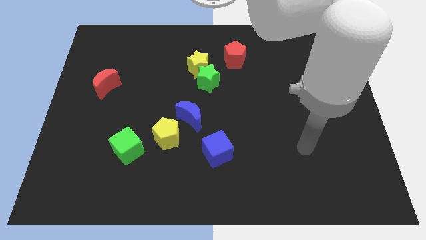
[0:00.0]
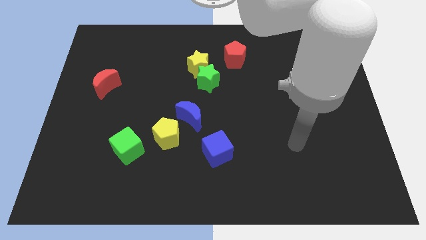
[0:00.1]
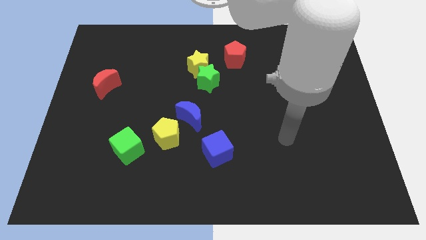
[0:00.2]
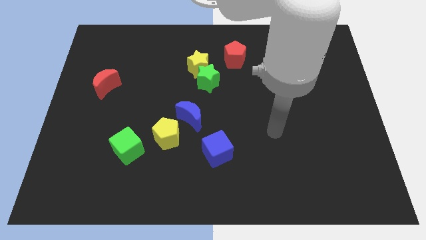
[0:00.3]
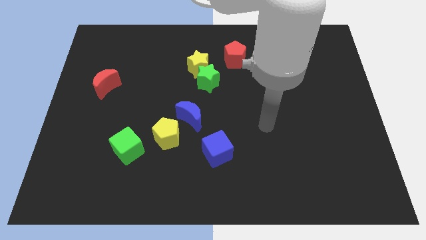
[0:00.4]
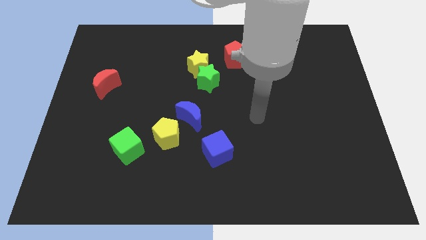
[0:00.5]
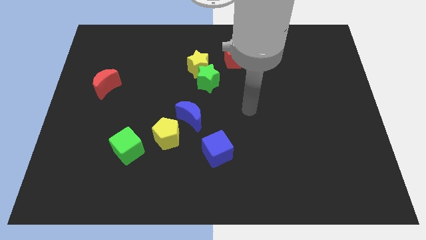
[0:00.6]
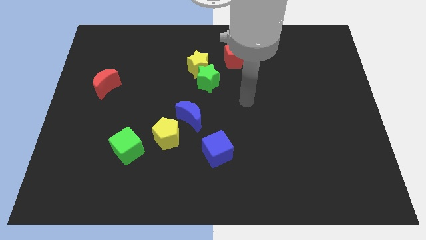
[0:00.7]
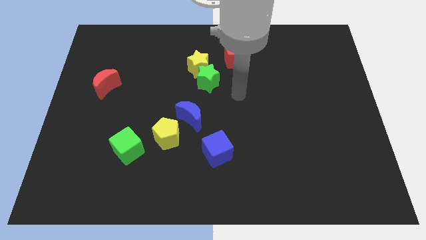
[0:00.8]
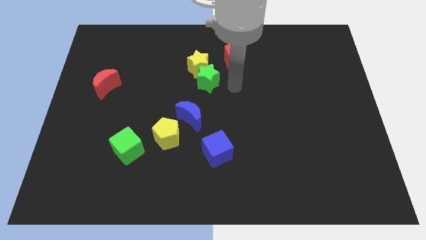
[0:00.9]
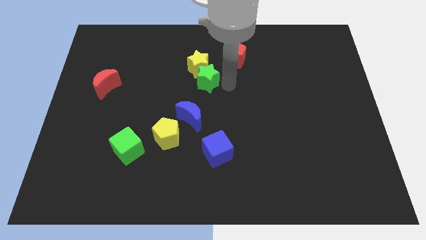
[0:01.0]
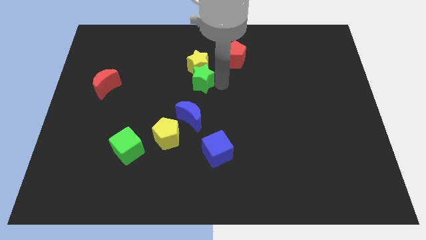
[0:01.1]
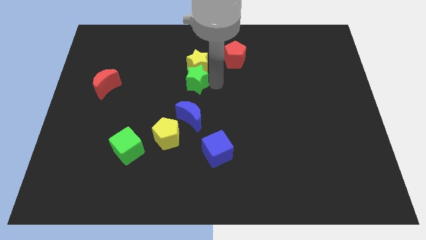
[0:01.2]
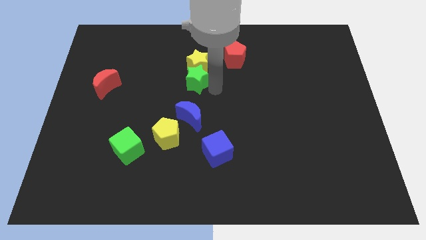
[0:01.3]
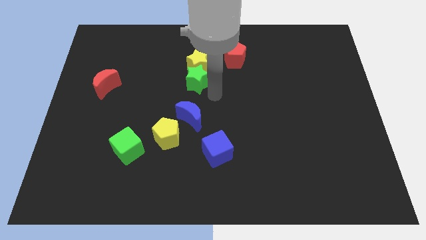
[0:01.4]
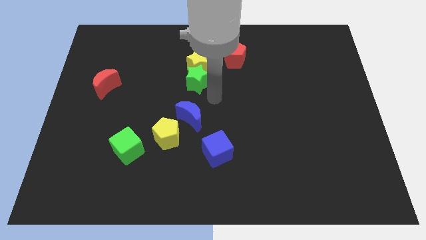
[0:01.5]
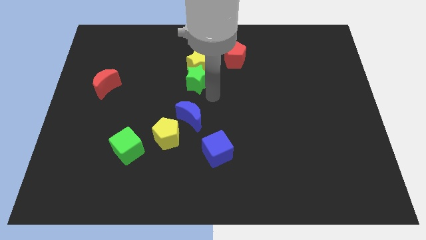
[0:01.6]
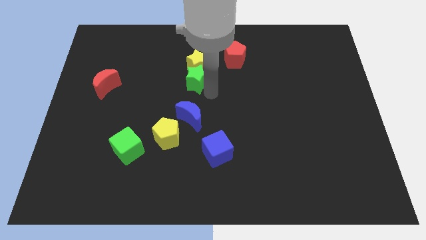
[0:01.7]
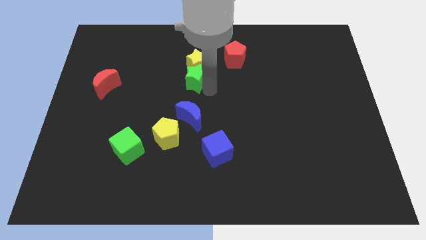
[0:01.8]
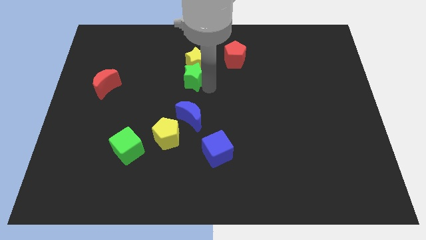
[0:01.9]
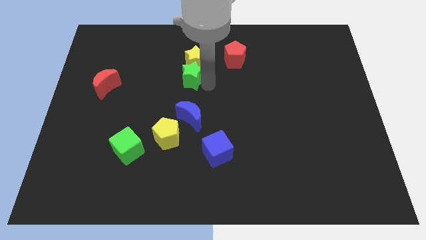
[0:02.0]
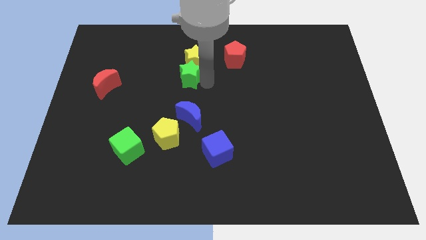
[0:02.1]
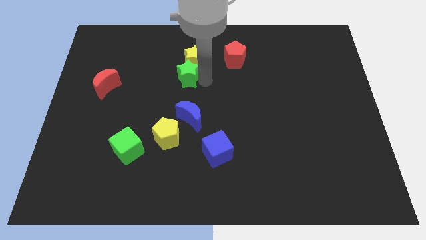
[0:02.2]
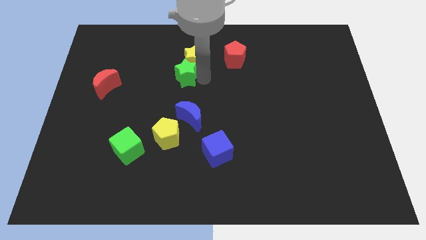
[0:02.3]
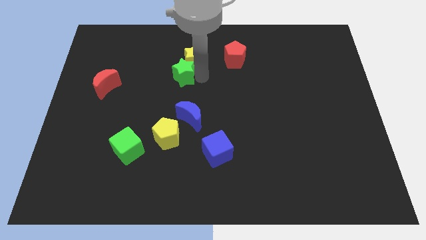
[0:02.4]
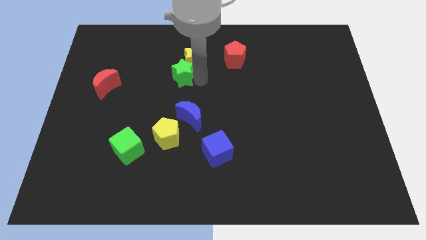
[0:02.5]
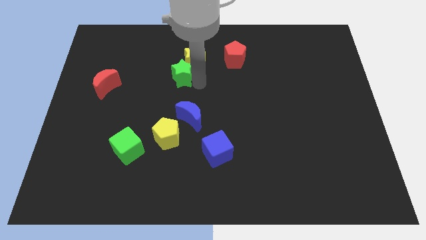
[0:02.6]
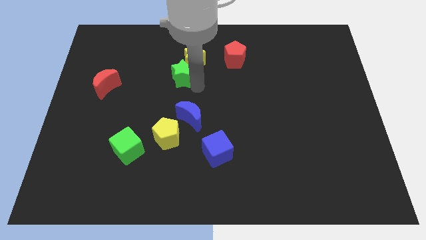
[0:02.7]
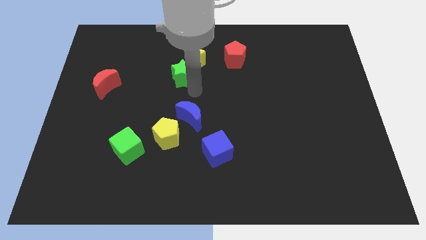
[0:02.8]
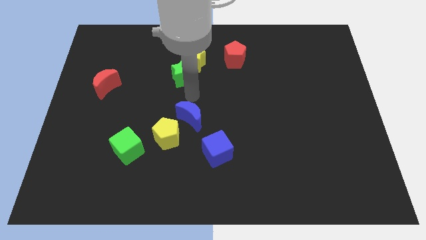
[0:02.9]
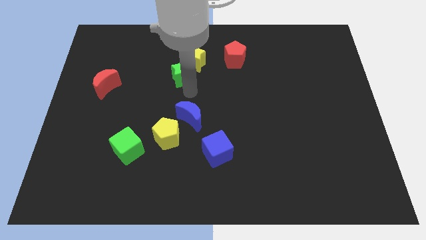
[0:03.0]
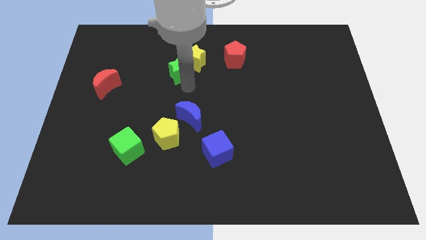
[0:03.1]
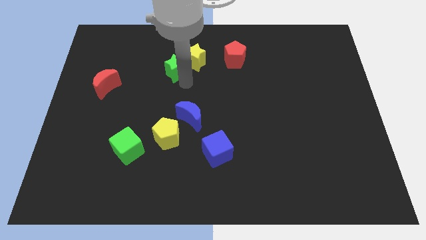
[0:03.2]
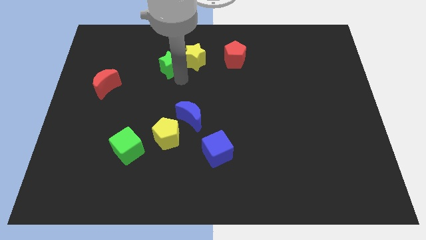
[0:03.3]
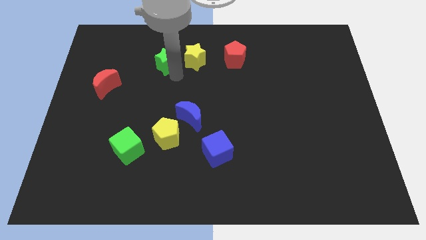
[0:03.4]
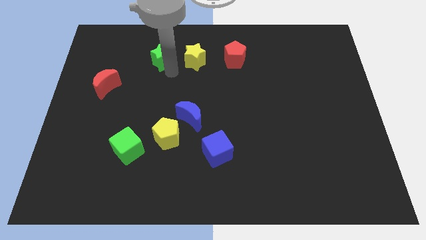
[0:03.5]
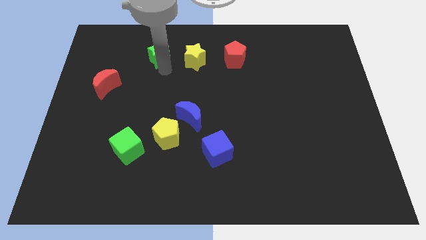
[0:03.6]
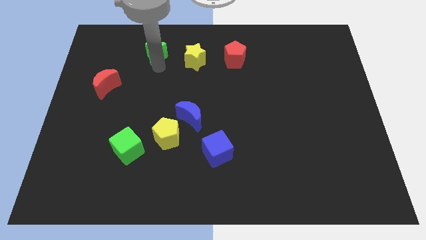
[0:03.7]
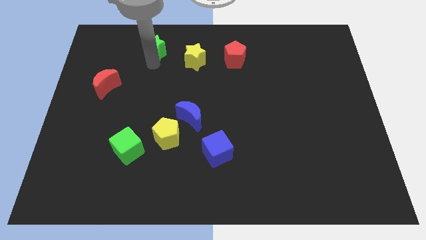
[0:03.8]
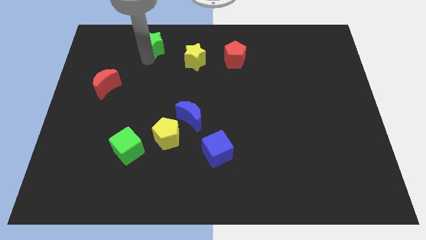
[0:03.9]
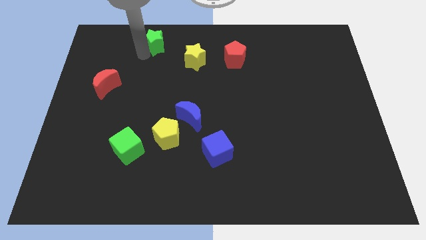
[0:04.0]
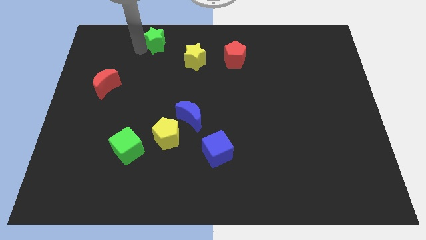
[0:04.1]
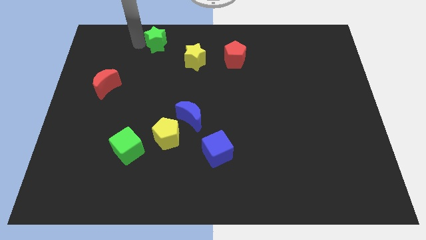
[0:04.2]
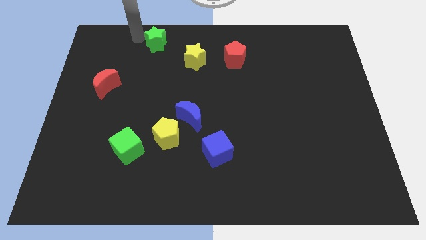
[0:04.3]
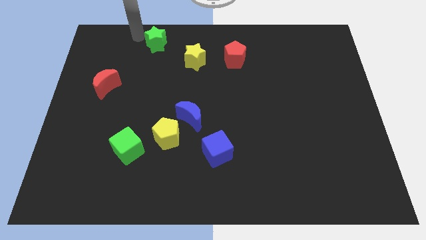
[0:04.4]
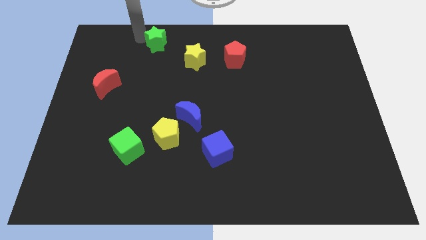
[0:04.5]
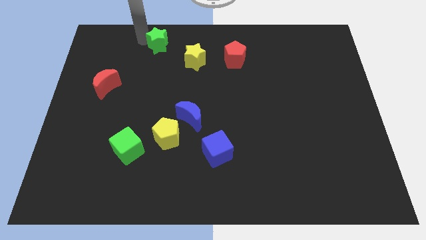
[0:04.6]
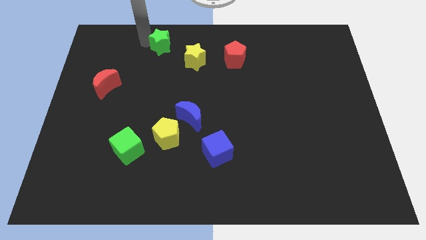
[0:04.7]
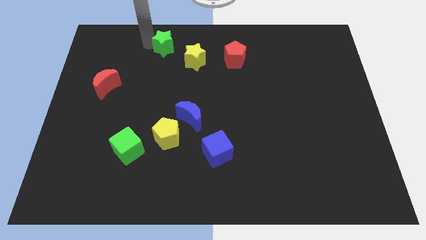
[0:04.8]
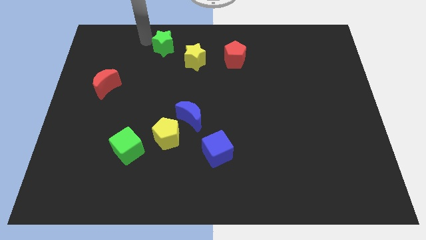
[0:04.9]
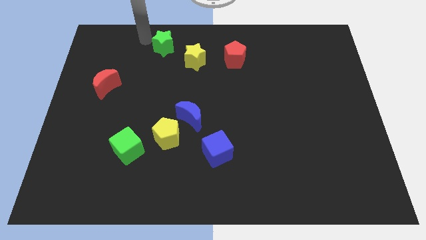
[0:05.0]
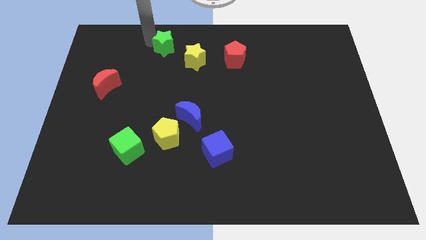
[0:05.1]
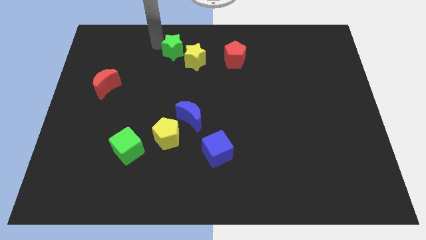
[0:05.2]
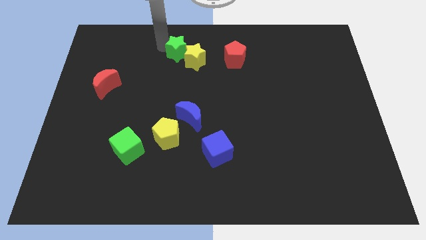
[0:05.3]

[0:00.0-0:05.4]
put the green star left of the red pentagon

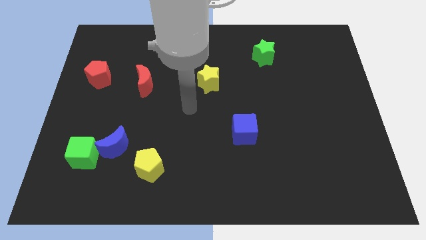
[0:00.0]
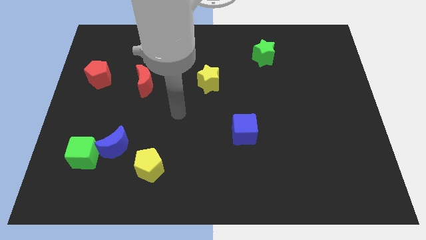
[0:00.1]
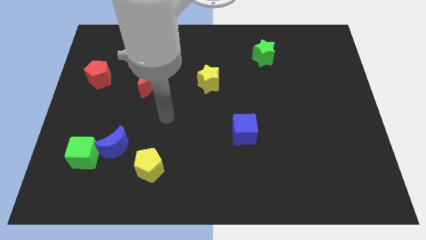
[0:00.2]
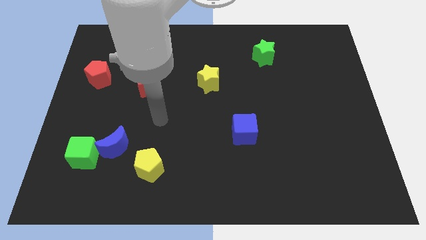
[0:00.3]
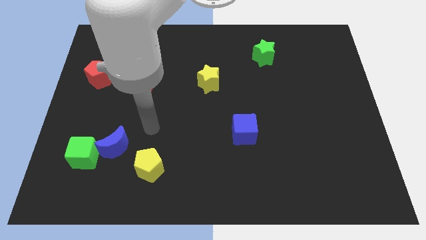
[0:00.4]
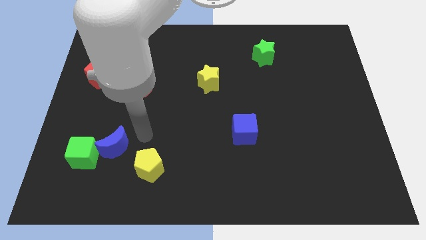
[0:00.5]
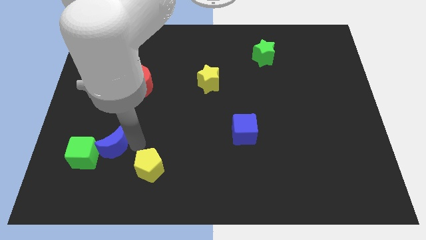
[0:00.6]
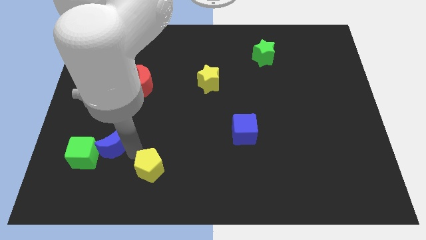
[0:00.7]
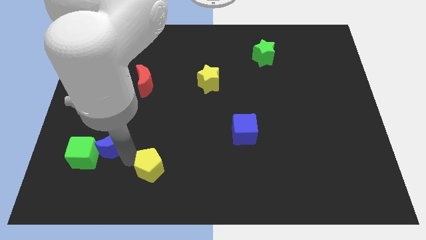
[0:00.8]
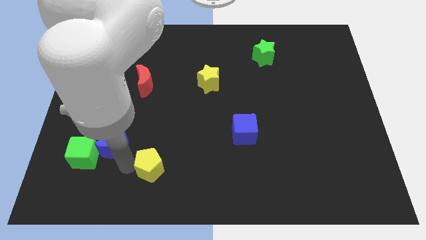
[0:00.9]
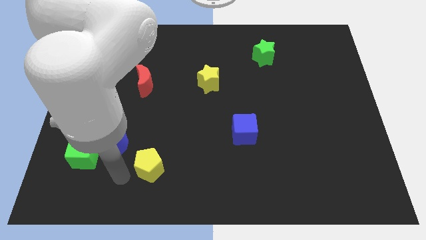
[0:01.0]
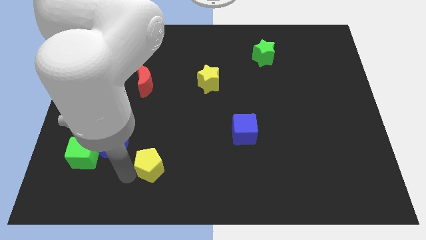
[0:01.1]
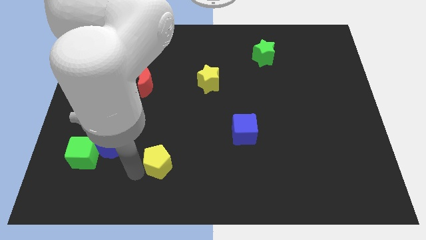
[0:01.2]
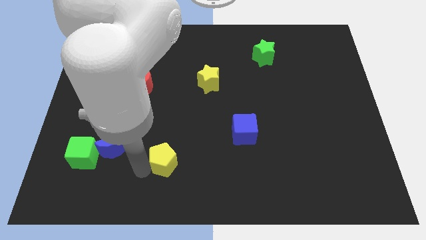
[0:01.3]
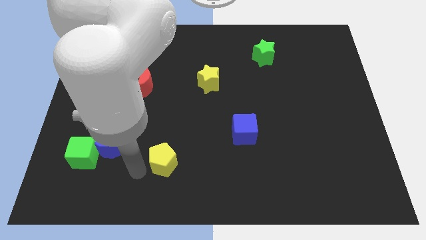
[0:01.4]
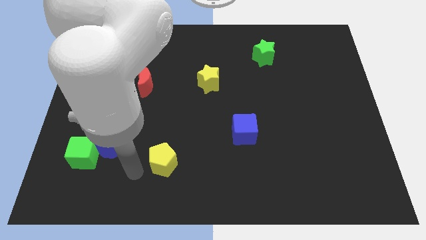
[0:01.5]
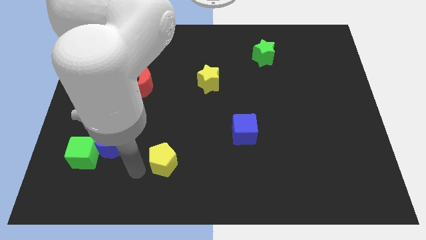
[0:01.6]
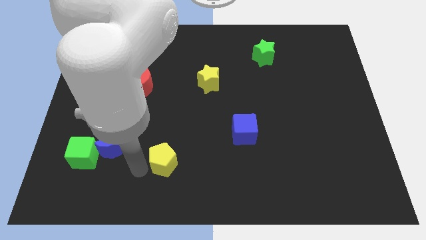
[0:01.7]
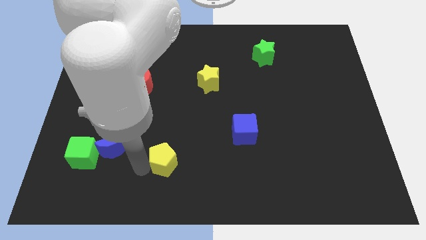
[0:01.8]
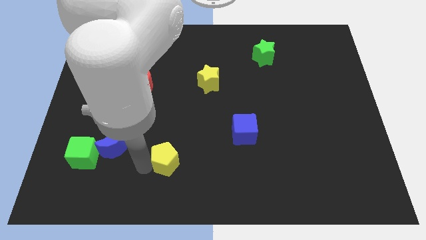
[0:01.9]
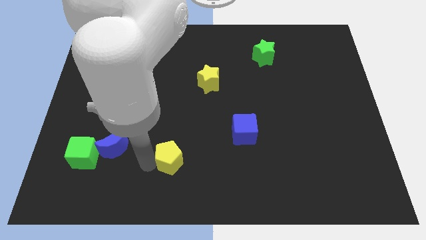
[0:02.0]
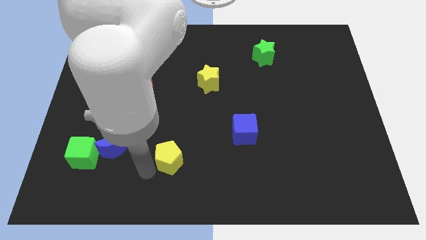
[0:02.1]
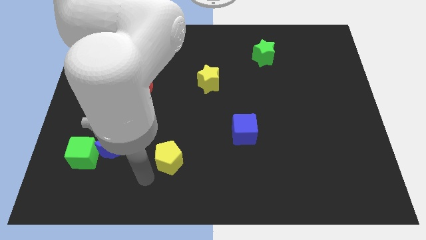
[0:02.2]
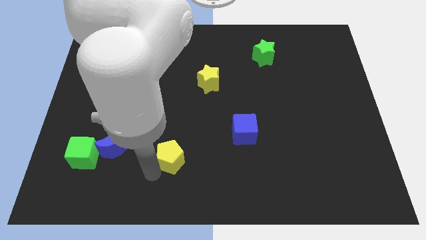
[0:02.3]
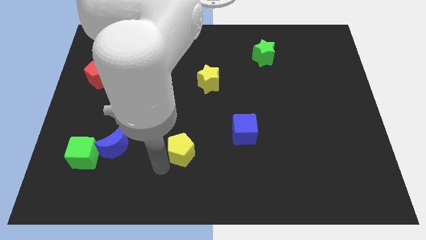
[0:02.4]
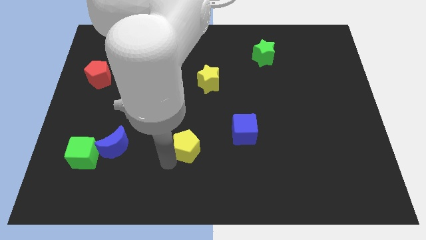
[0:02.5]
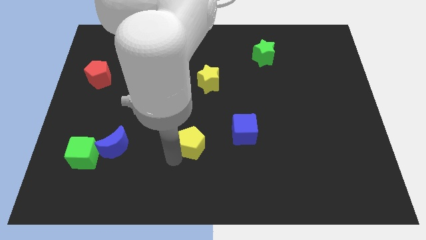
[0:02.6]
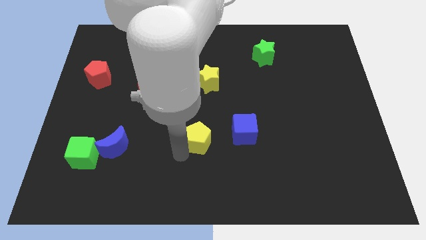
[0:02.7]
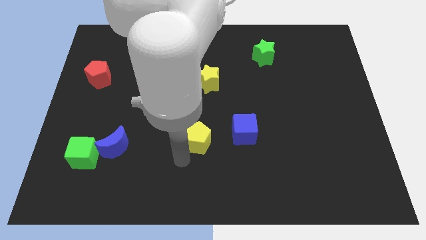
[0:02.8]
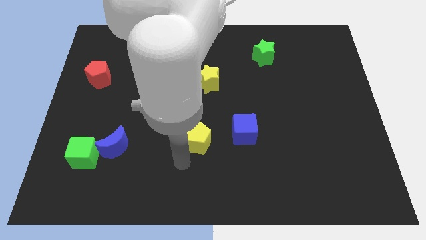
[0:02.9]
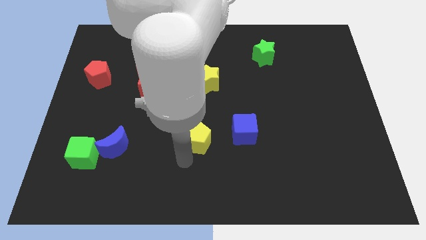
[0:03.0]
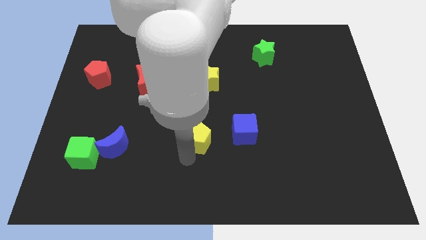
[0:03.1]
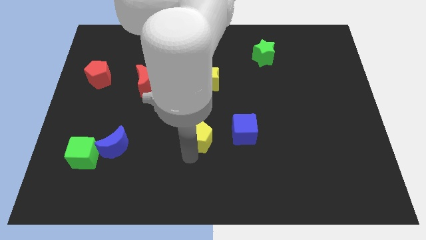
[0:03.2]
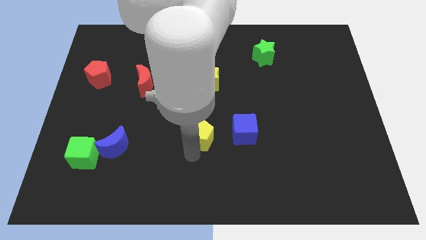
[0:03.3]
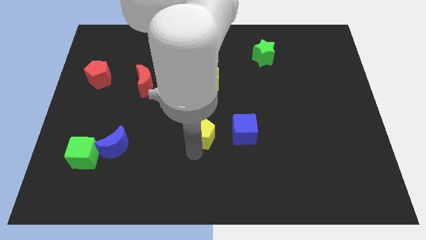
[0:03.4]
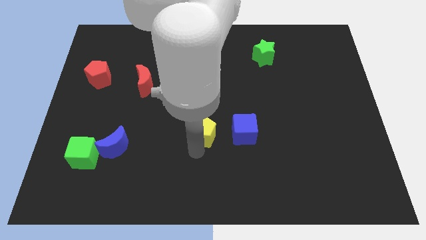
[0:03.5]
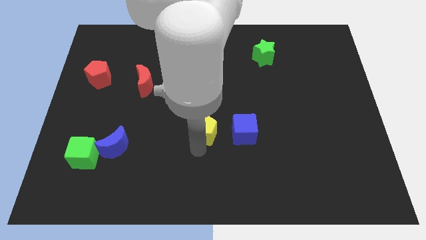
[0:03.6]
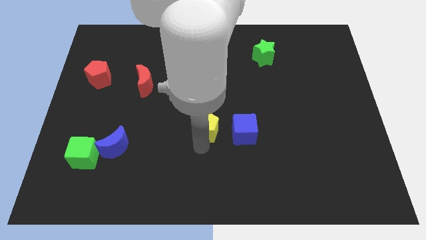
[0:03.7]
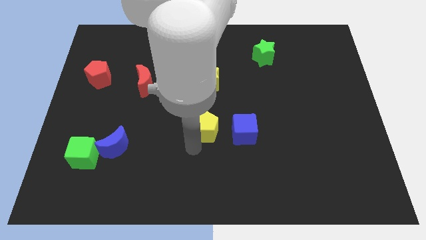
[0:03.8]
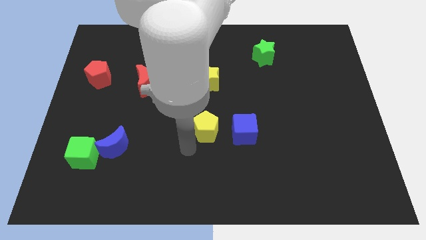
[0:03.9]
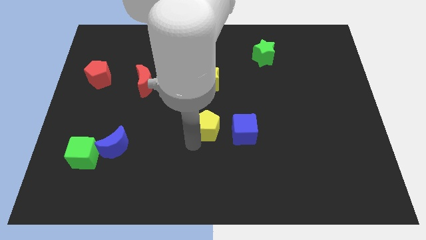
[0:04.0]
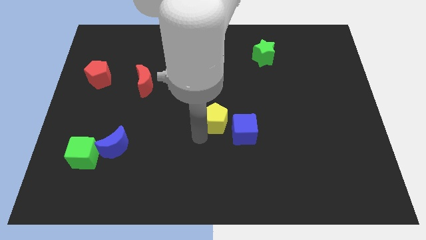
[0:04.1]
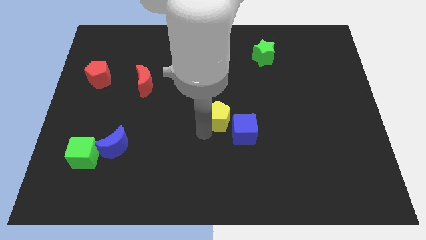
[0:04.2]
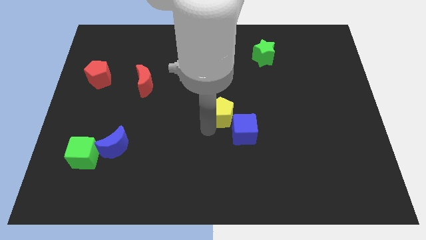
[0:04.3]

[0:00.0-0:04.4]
slide the yellow pentagon to the top of the blue cube
